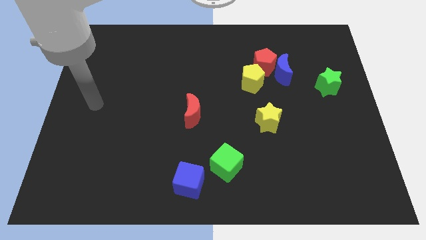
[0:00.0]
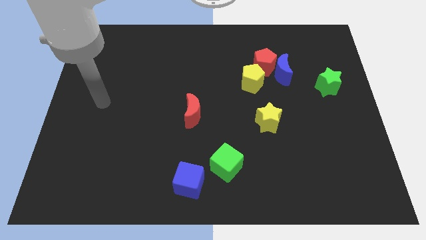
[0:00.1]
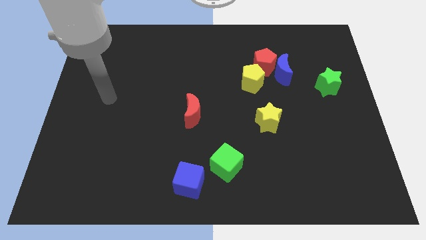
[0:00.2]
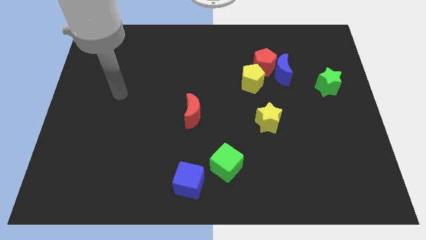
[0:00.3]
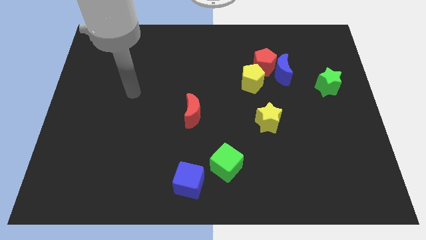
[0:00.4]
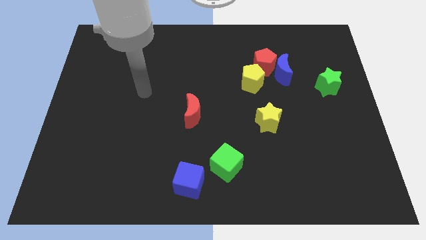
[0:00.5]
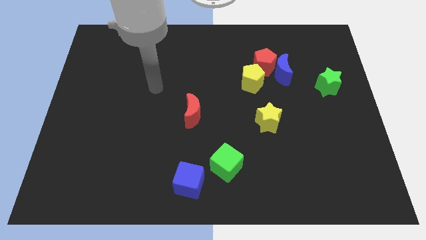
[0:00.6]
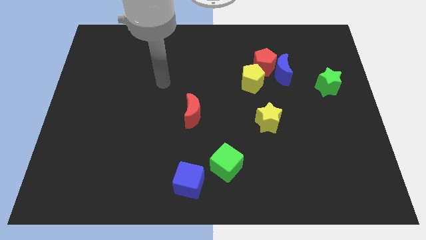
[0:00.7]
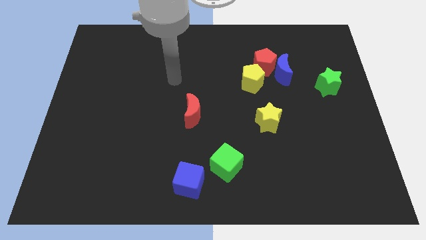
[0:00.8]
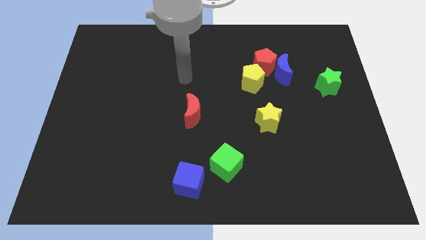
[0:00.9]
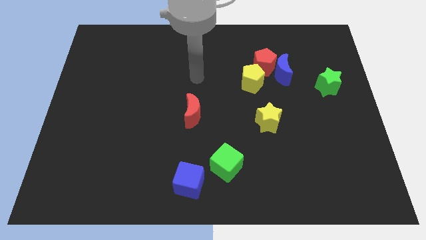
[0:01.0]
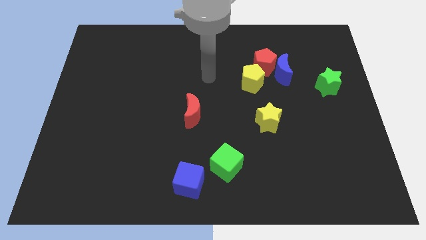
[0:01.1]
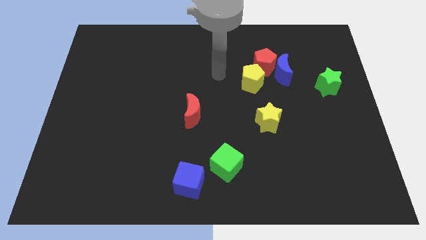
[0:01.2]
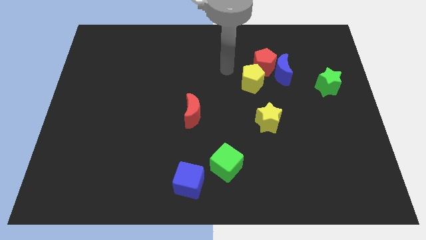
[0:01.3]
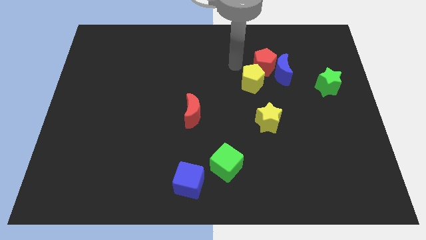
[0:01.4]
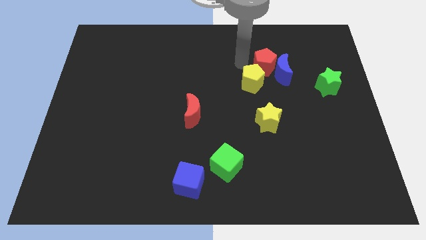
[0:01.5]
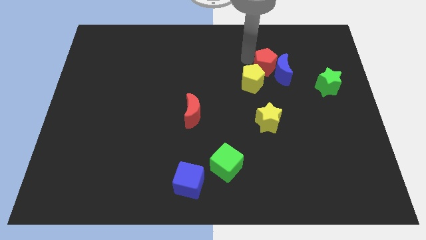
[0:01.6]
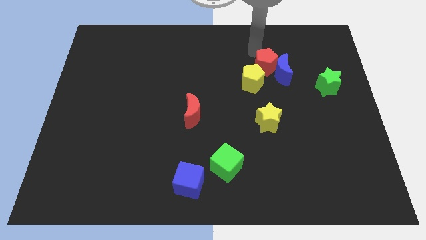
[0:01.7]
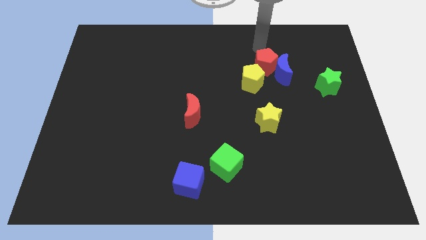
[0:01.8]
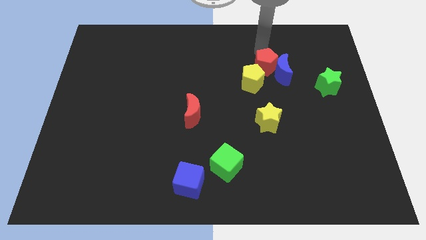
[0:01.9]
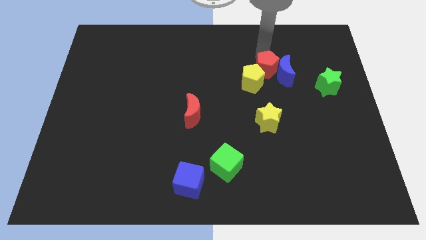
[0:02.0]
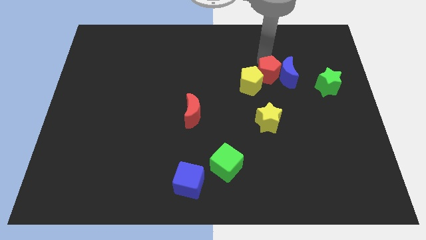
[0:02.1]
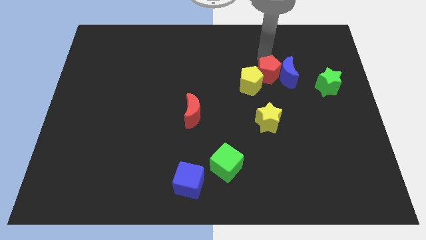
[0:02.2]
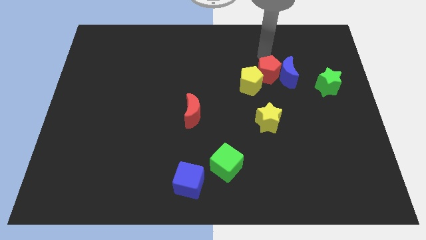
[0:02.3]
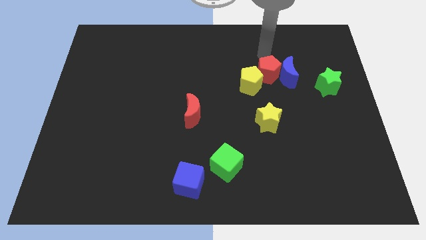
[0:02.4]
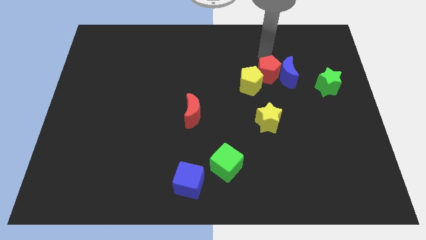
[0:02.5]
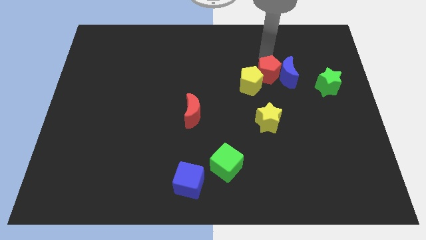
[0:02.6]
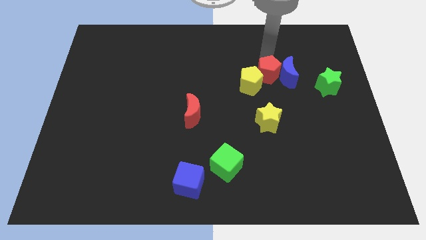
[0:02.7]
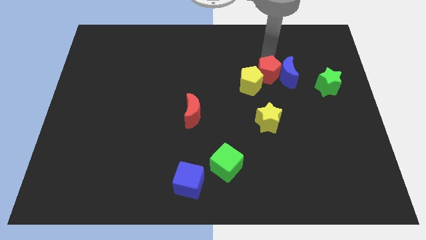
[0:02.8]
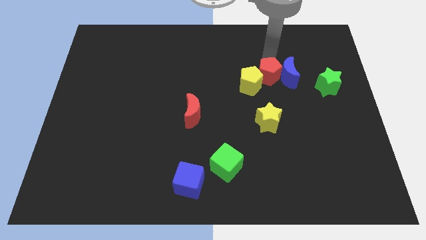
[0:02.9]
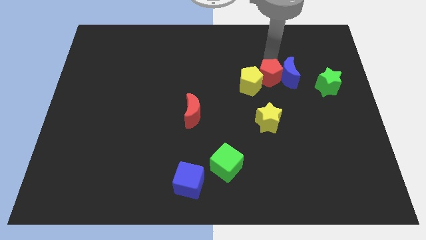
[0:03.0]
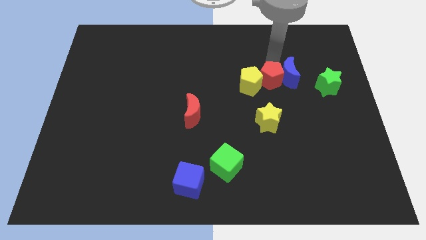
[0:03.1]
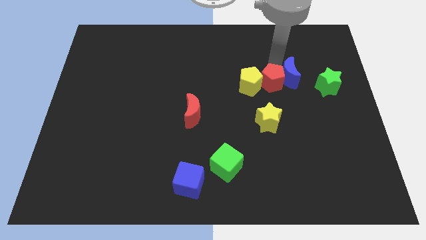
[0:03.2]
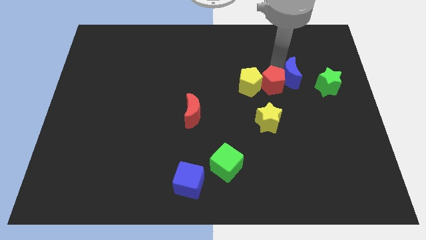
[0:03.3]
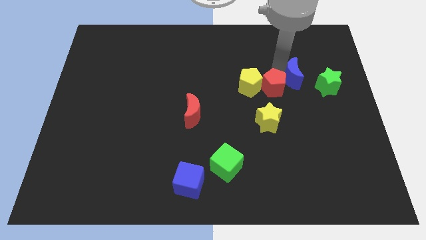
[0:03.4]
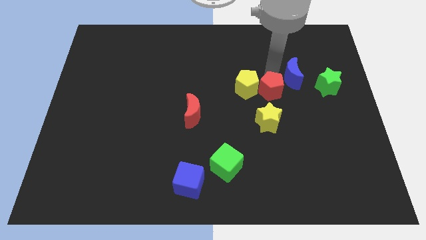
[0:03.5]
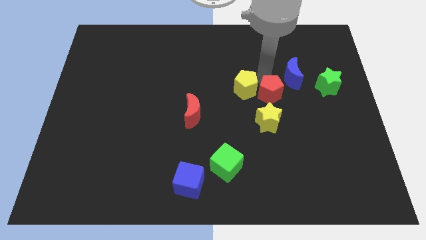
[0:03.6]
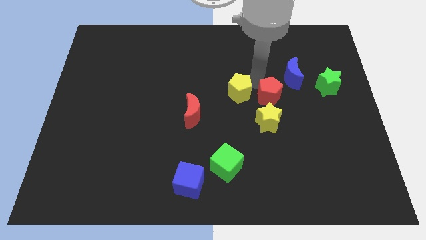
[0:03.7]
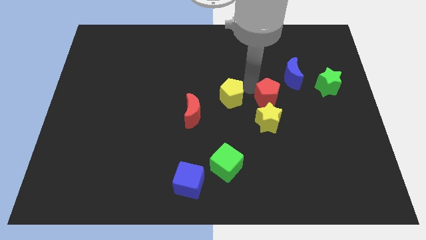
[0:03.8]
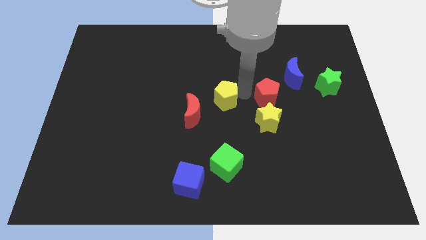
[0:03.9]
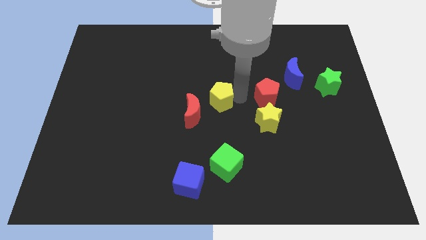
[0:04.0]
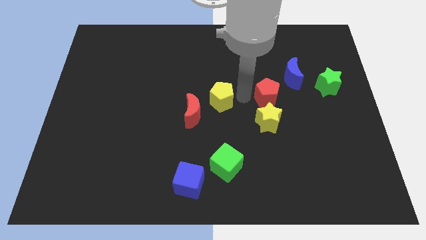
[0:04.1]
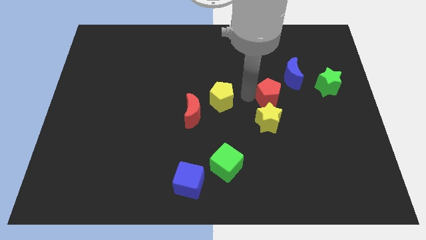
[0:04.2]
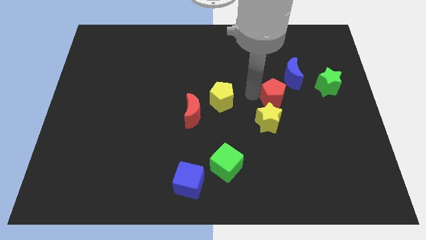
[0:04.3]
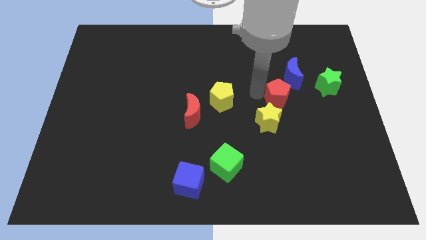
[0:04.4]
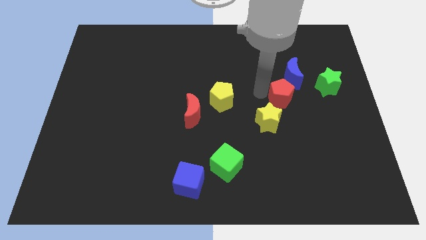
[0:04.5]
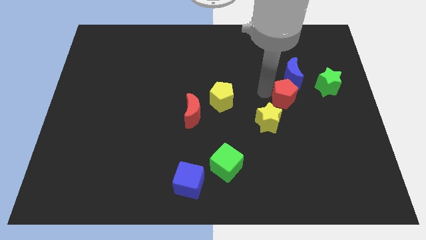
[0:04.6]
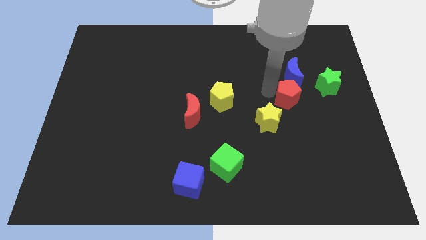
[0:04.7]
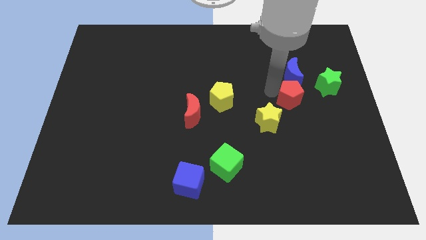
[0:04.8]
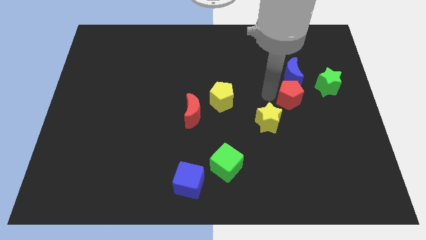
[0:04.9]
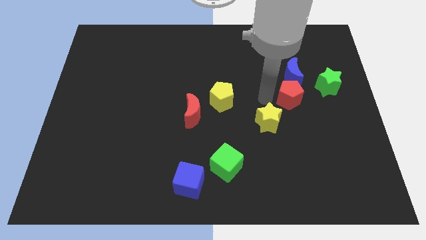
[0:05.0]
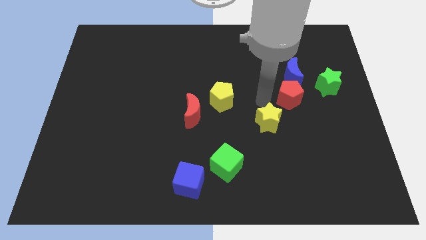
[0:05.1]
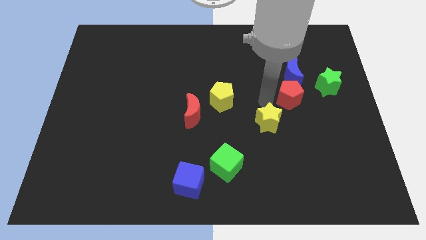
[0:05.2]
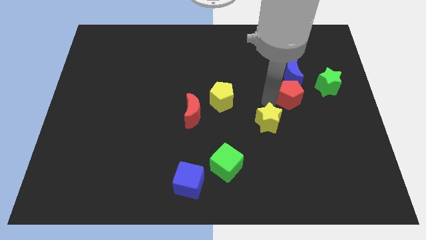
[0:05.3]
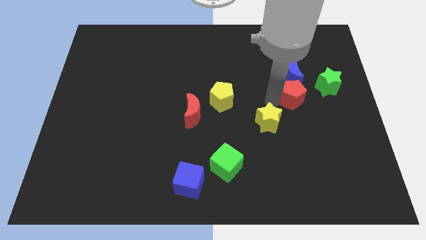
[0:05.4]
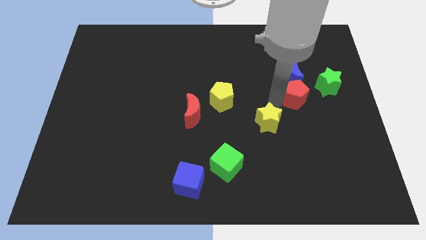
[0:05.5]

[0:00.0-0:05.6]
push the red pentagon to the bottom right side of the blue moon
